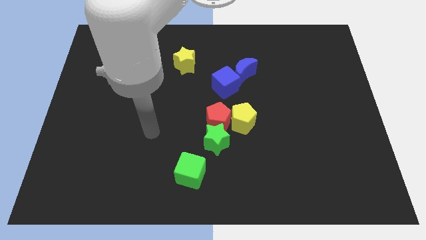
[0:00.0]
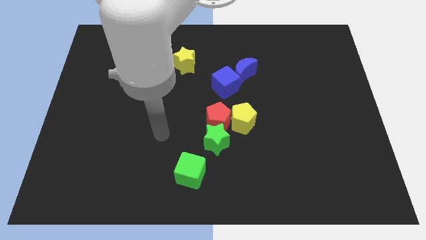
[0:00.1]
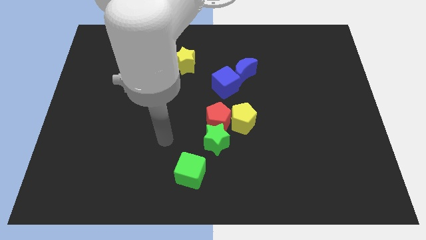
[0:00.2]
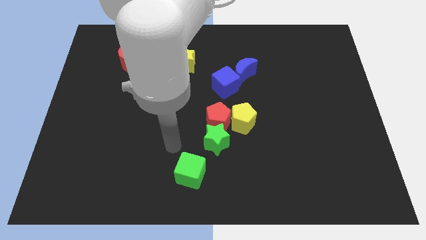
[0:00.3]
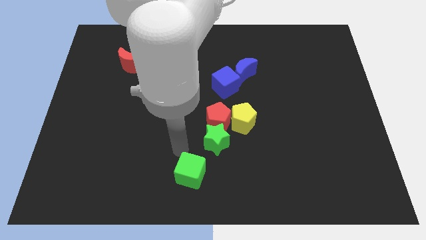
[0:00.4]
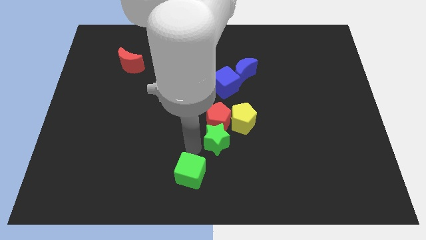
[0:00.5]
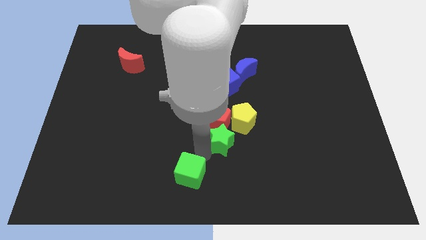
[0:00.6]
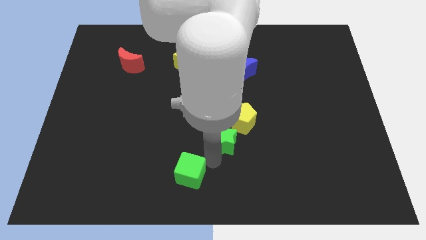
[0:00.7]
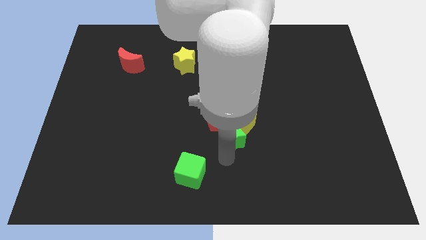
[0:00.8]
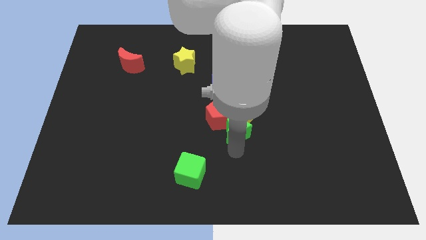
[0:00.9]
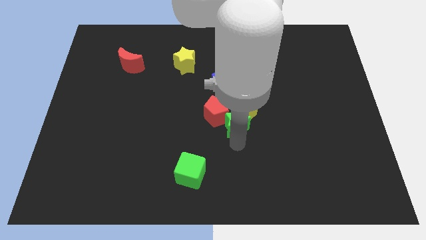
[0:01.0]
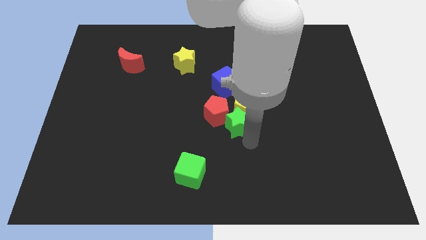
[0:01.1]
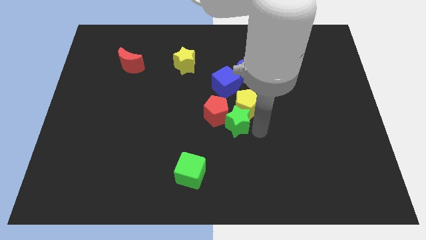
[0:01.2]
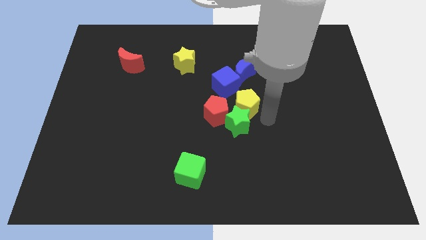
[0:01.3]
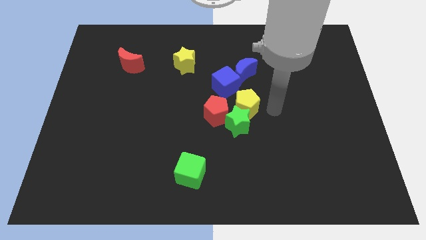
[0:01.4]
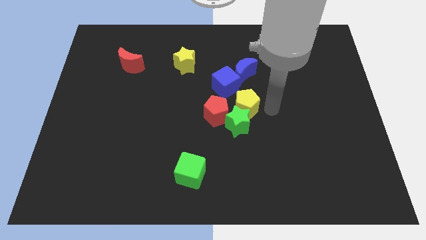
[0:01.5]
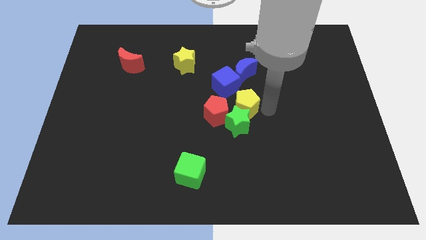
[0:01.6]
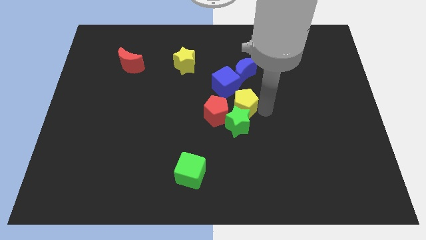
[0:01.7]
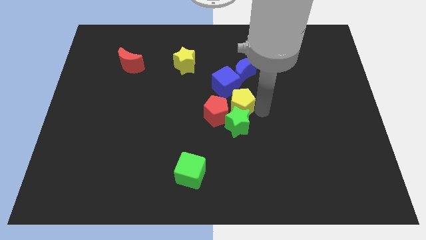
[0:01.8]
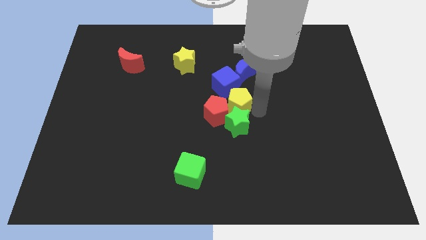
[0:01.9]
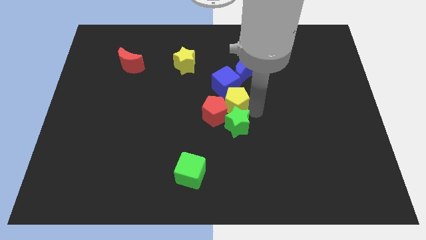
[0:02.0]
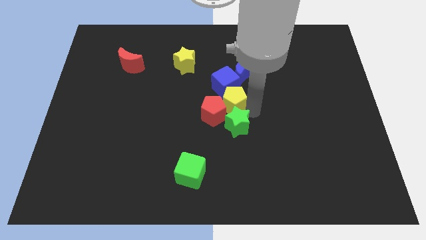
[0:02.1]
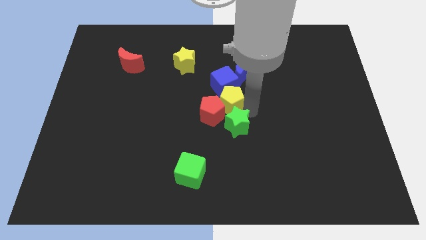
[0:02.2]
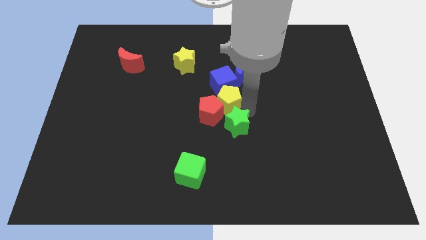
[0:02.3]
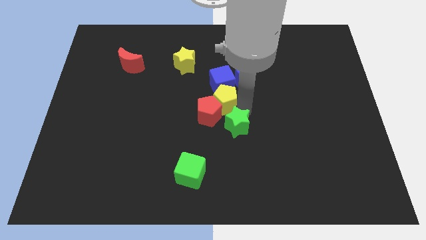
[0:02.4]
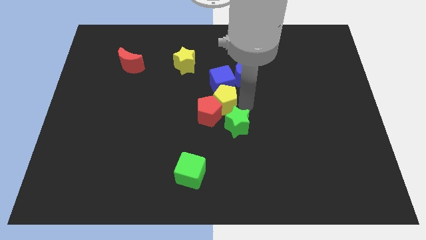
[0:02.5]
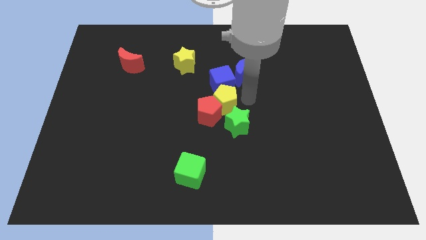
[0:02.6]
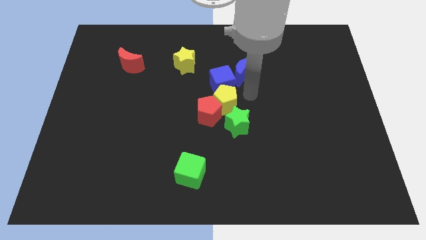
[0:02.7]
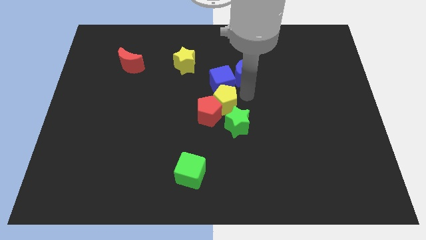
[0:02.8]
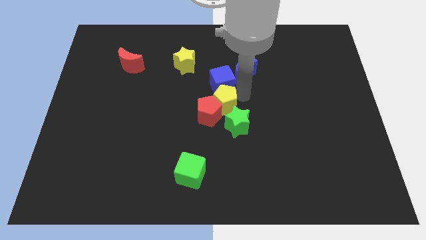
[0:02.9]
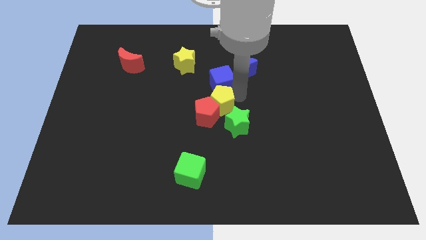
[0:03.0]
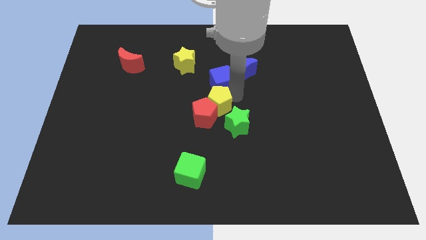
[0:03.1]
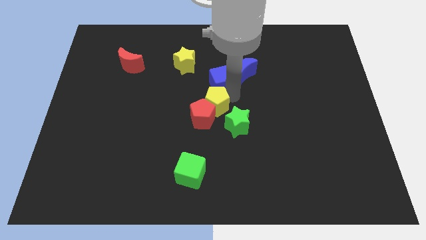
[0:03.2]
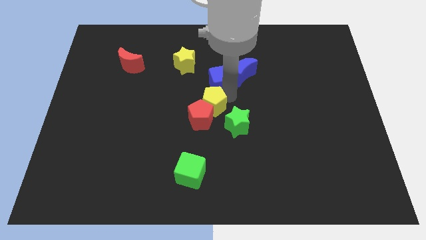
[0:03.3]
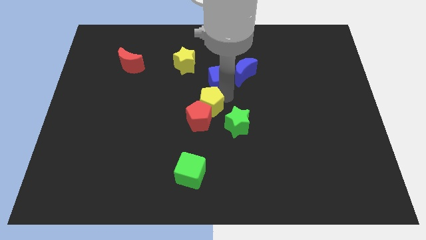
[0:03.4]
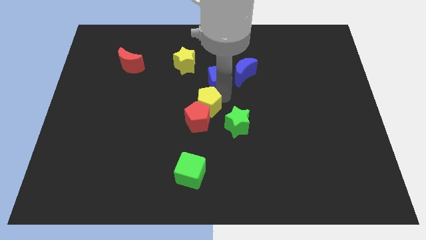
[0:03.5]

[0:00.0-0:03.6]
push the yellow pentagon left a little

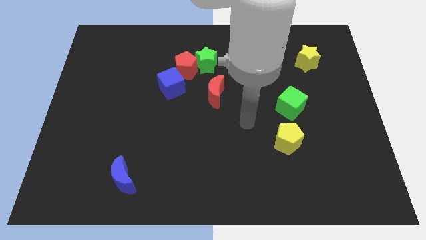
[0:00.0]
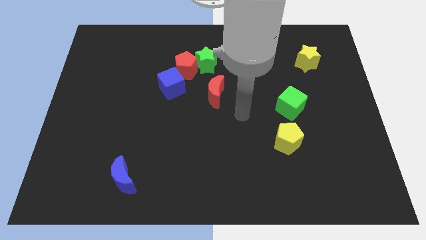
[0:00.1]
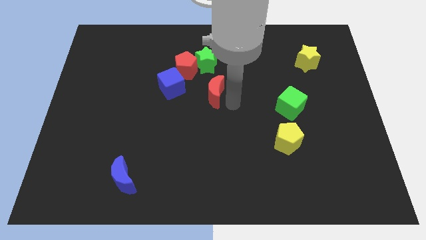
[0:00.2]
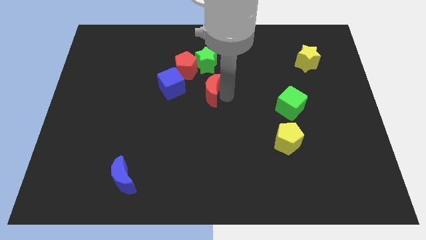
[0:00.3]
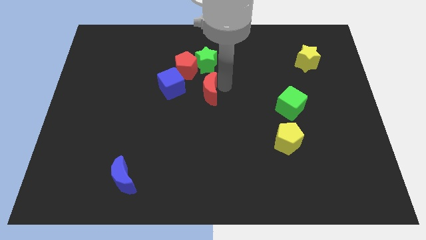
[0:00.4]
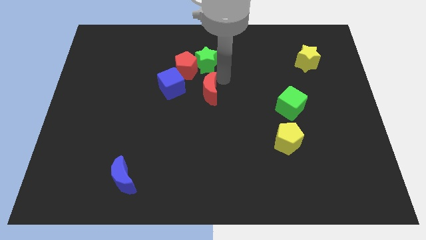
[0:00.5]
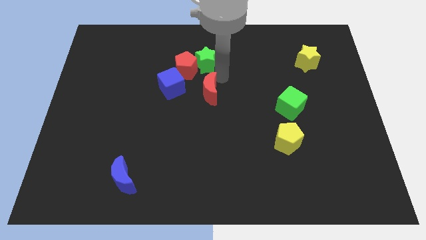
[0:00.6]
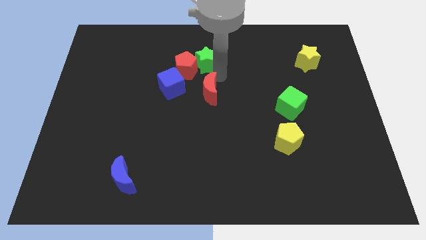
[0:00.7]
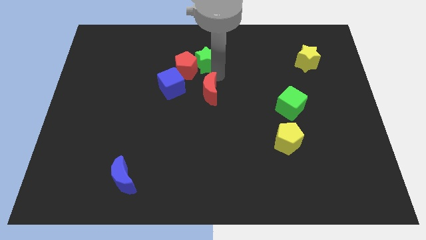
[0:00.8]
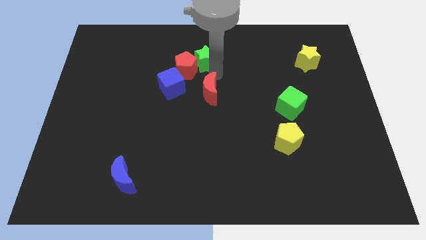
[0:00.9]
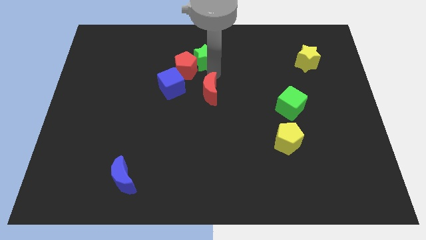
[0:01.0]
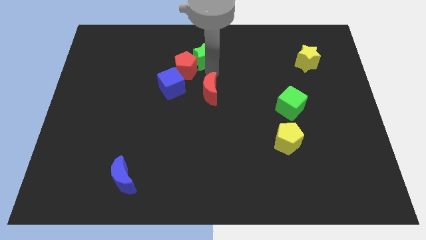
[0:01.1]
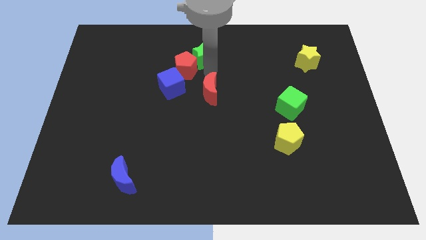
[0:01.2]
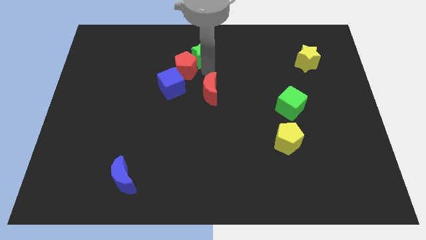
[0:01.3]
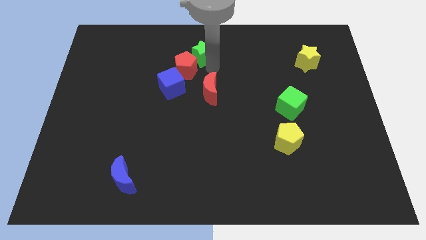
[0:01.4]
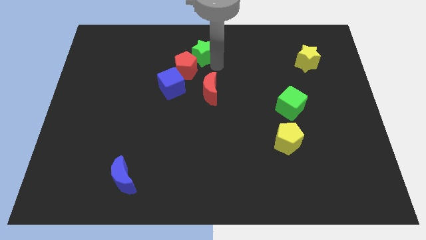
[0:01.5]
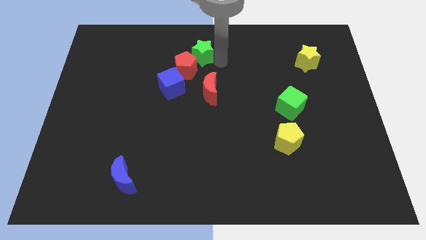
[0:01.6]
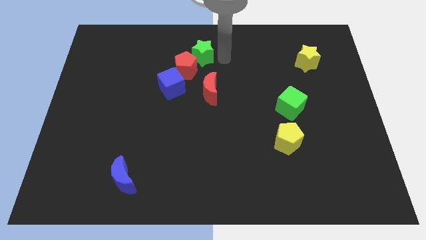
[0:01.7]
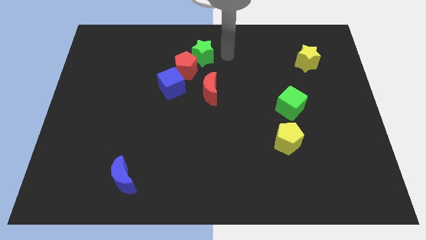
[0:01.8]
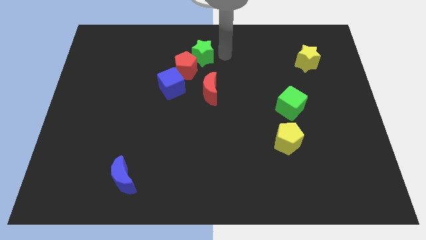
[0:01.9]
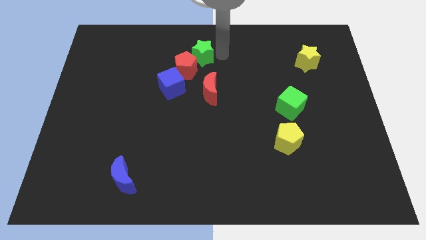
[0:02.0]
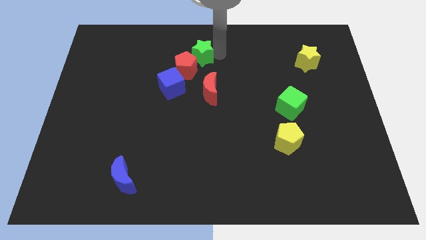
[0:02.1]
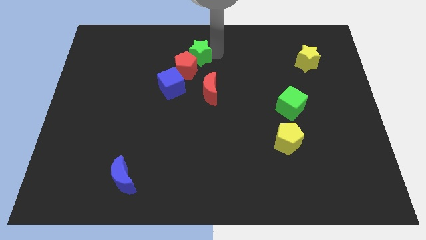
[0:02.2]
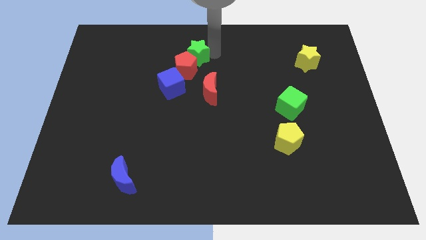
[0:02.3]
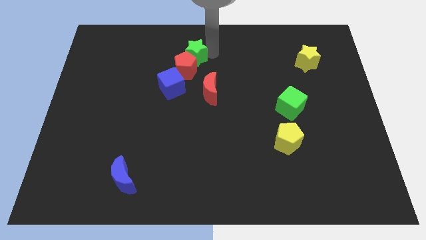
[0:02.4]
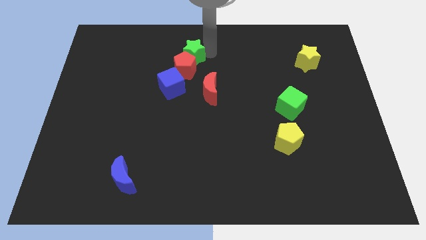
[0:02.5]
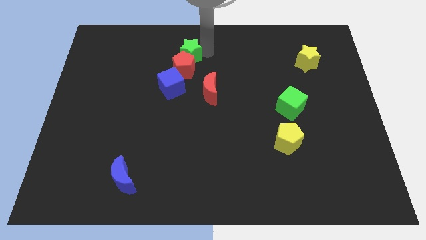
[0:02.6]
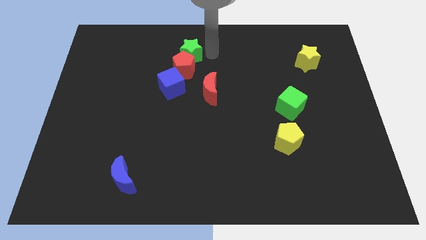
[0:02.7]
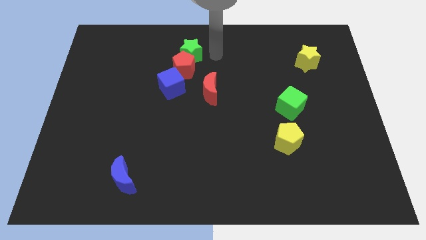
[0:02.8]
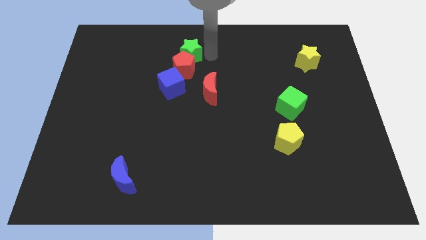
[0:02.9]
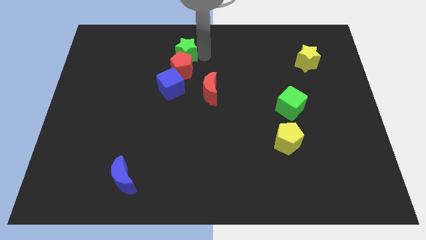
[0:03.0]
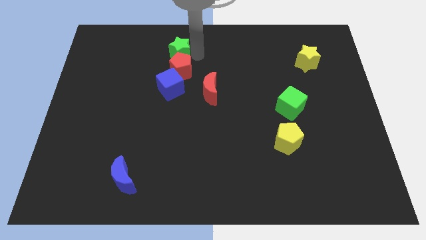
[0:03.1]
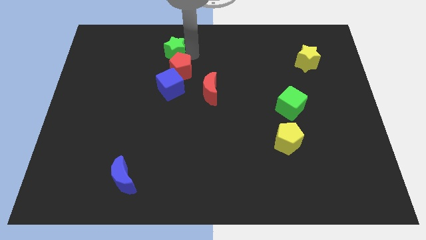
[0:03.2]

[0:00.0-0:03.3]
slide the green star left a bit

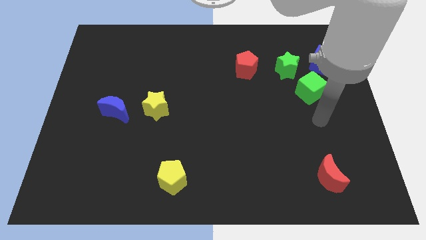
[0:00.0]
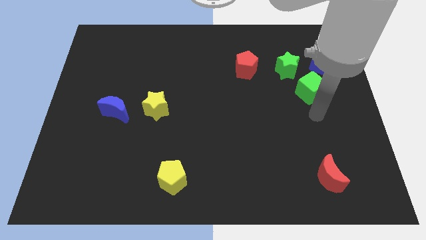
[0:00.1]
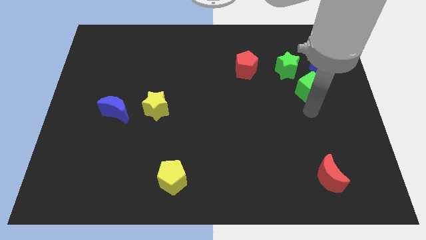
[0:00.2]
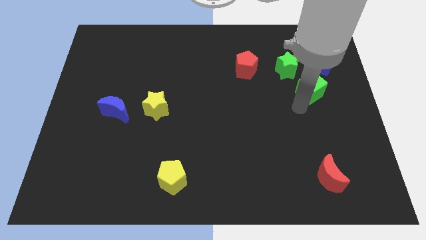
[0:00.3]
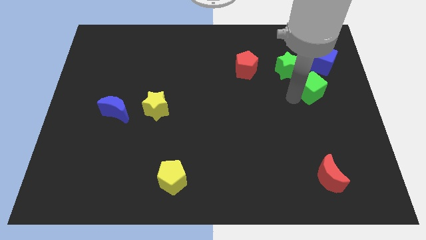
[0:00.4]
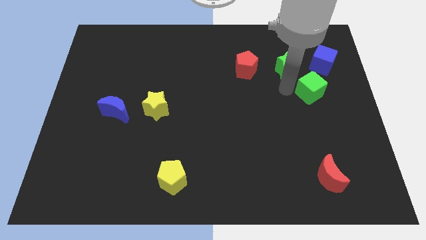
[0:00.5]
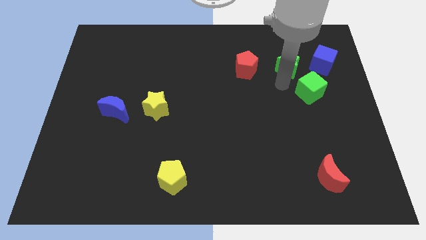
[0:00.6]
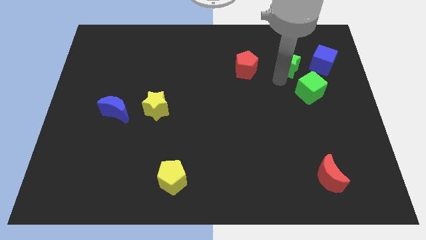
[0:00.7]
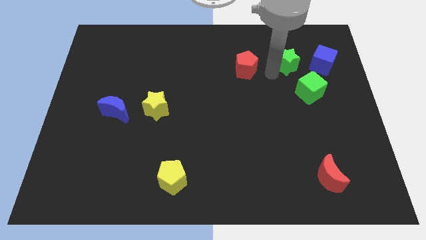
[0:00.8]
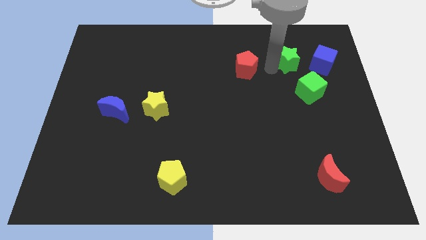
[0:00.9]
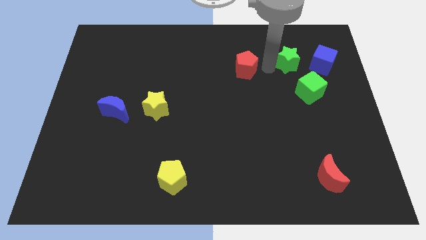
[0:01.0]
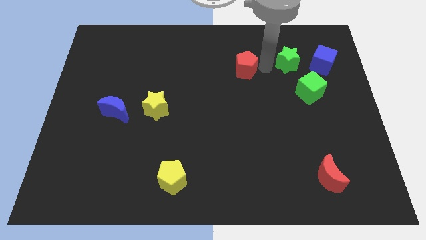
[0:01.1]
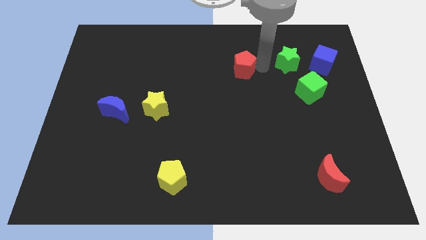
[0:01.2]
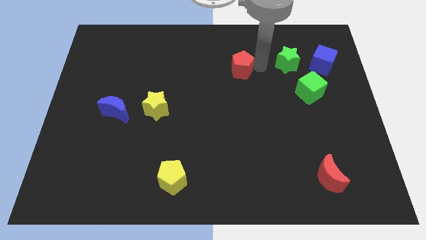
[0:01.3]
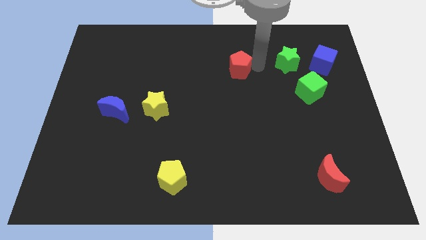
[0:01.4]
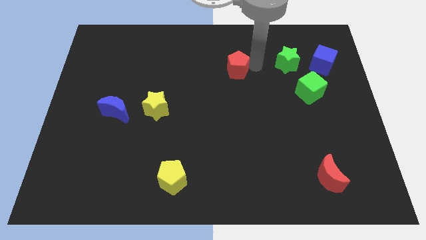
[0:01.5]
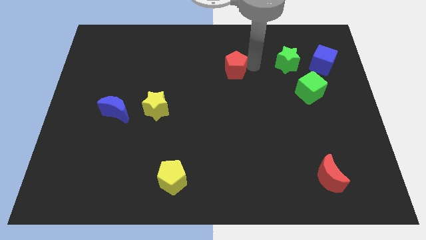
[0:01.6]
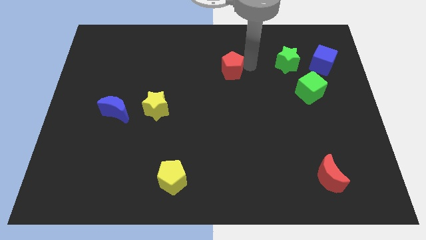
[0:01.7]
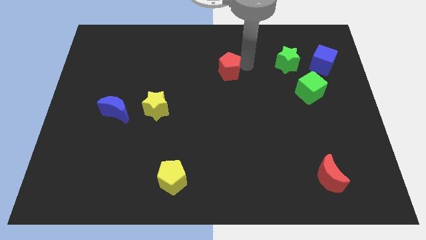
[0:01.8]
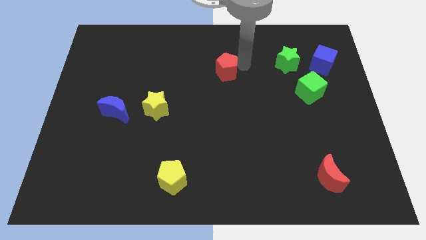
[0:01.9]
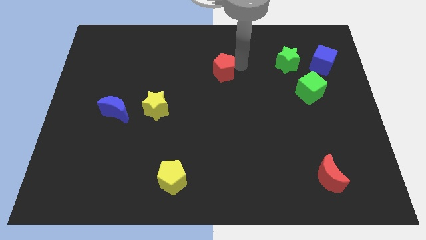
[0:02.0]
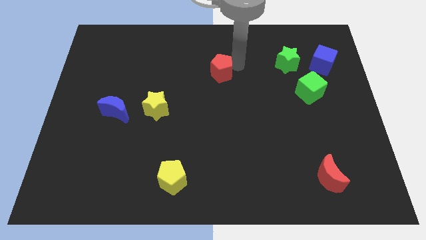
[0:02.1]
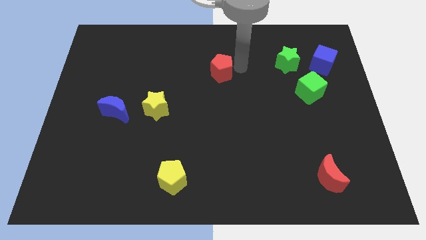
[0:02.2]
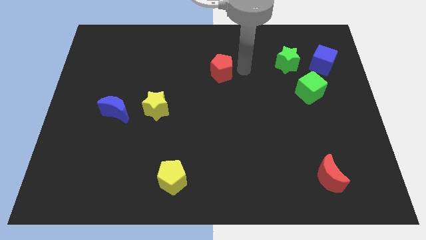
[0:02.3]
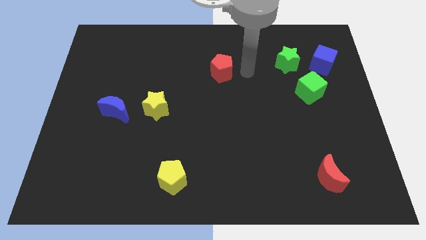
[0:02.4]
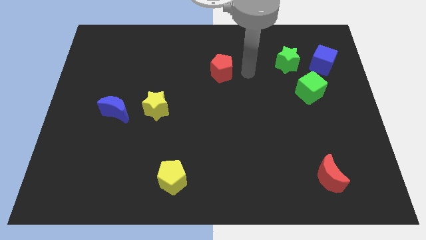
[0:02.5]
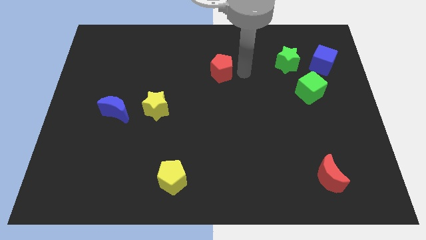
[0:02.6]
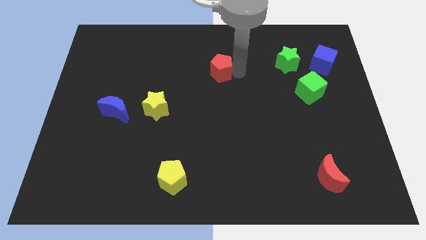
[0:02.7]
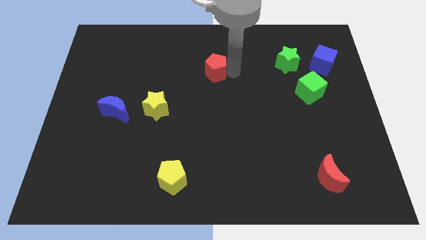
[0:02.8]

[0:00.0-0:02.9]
push the red pentagon left somewhat
